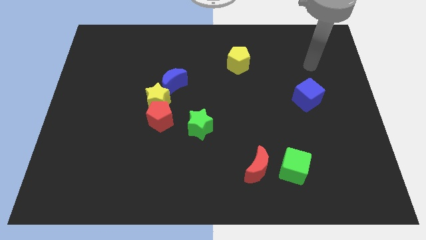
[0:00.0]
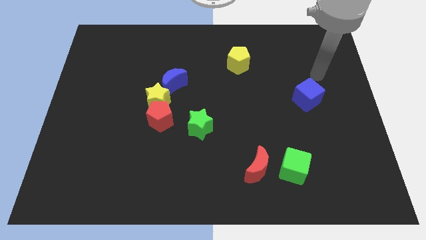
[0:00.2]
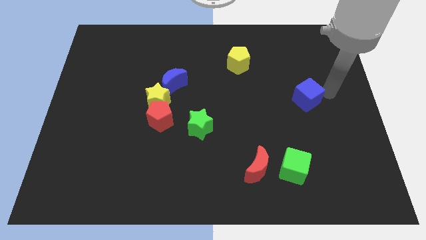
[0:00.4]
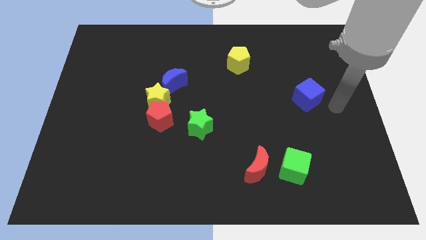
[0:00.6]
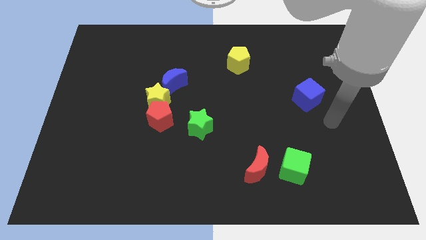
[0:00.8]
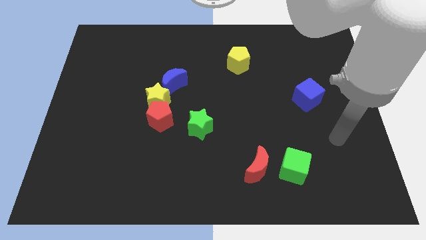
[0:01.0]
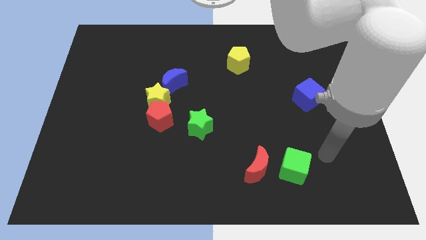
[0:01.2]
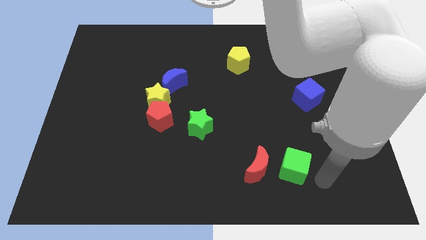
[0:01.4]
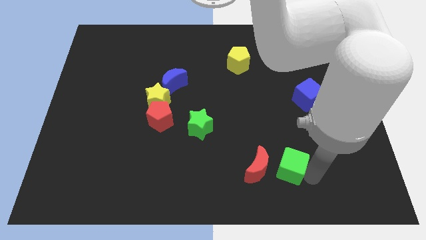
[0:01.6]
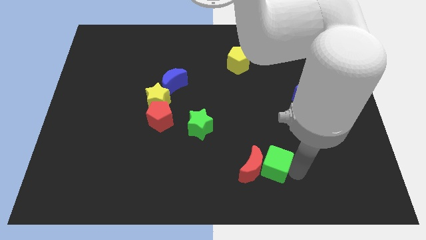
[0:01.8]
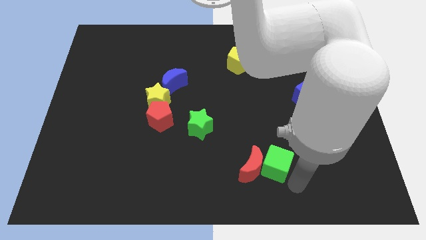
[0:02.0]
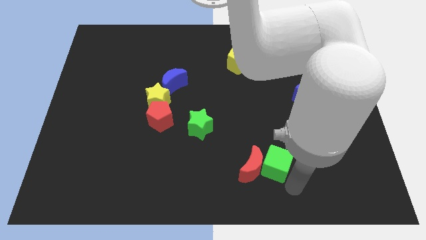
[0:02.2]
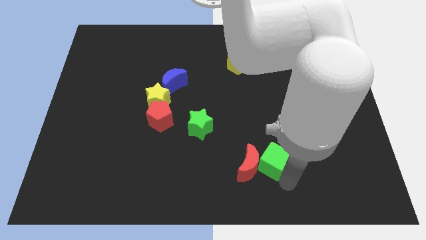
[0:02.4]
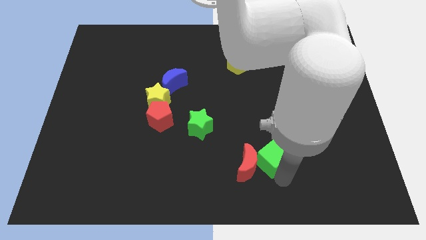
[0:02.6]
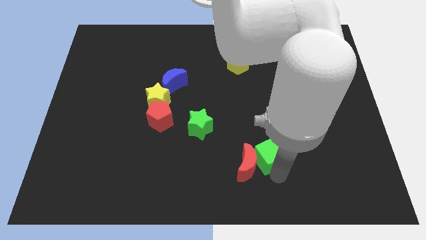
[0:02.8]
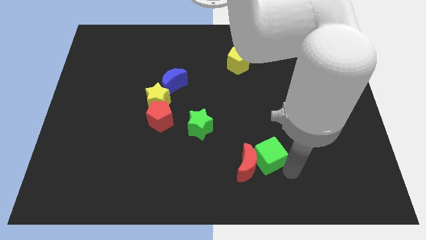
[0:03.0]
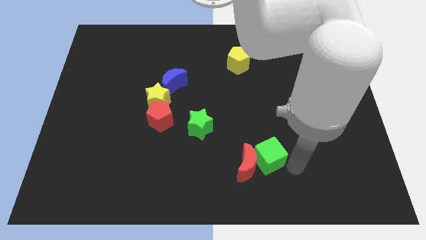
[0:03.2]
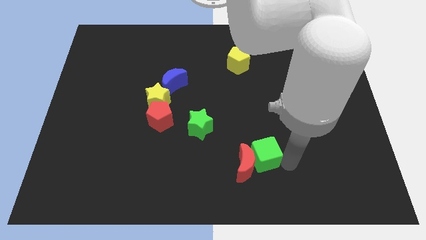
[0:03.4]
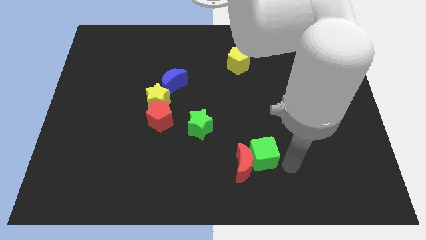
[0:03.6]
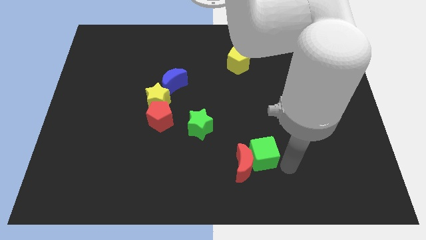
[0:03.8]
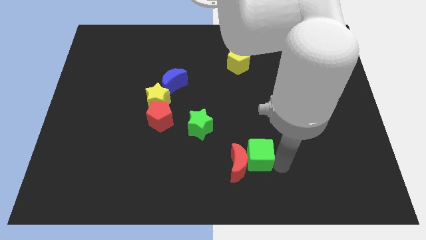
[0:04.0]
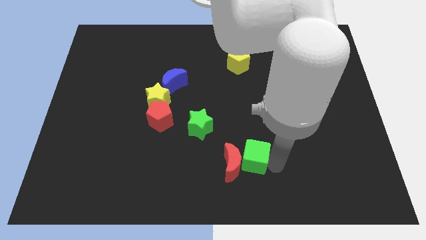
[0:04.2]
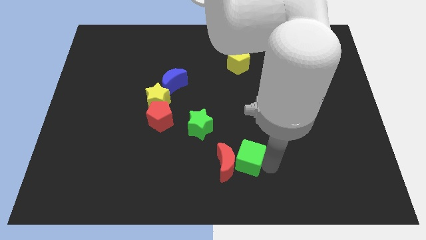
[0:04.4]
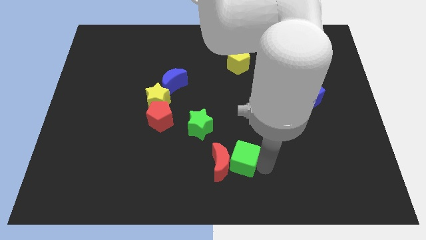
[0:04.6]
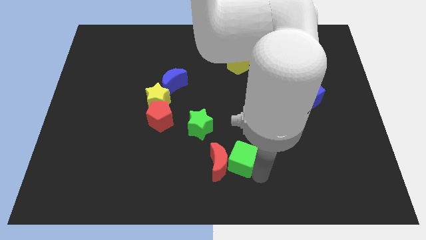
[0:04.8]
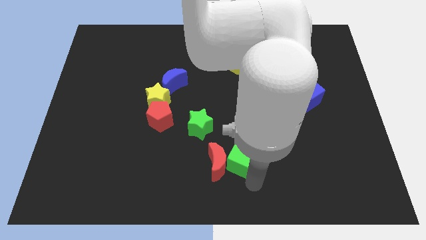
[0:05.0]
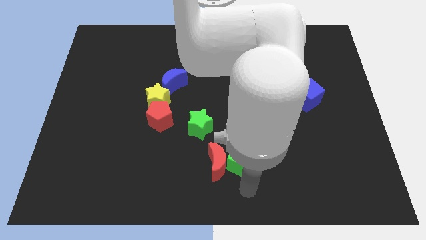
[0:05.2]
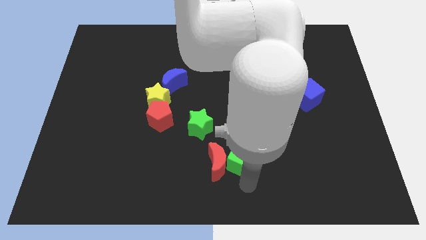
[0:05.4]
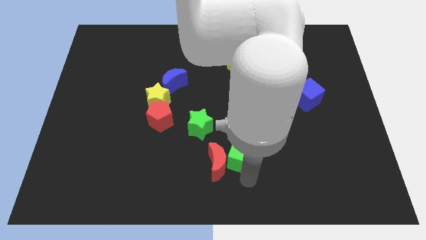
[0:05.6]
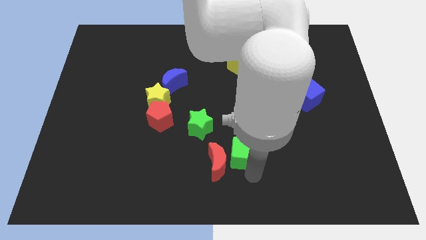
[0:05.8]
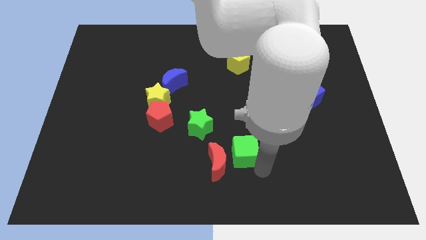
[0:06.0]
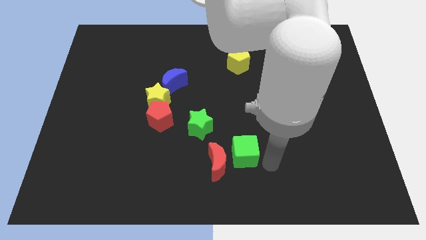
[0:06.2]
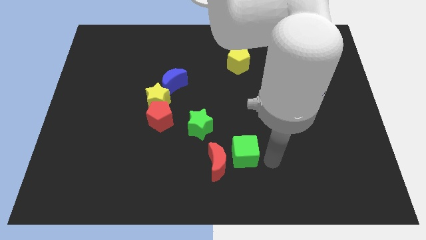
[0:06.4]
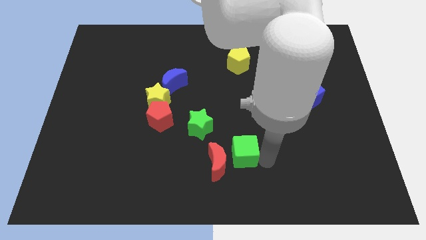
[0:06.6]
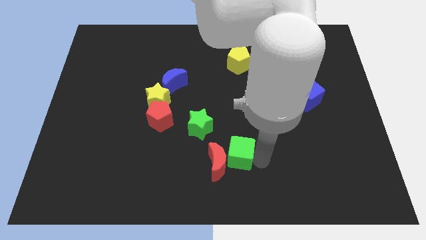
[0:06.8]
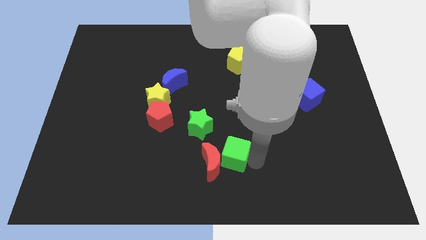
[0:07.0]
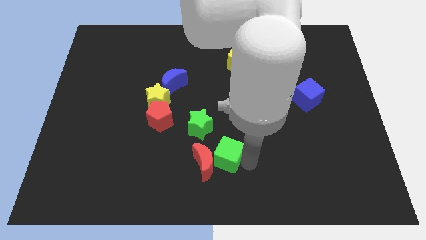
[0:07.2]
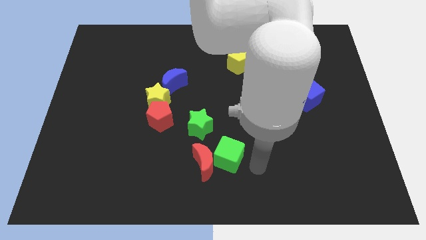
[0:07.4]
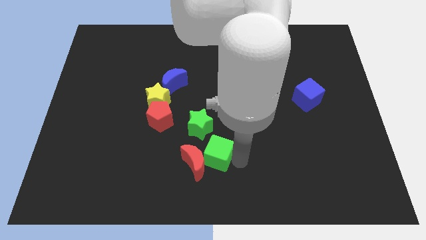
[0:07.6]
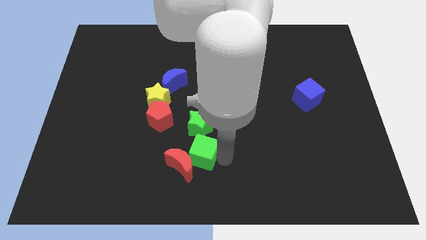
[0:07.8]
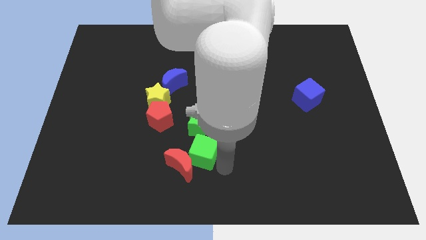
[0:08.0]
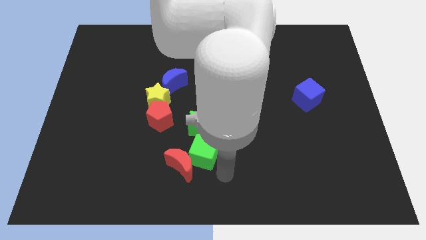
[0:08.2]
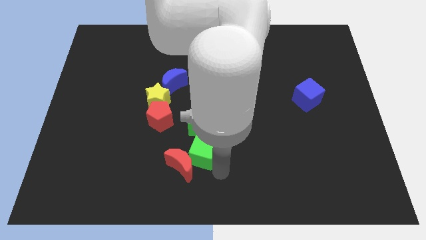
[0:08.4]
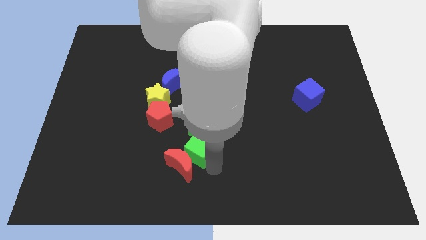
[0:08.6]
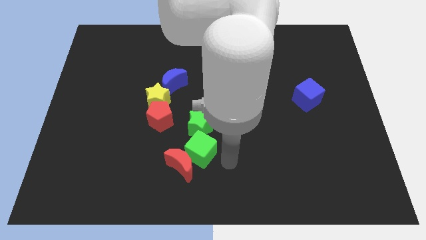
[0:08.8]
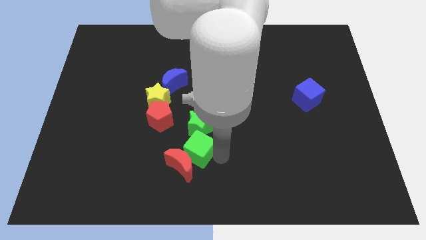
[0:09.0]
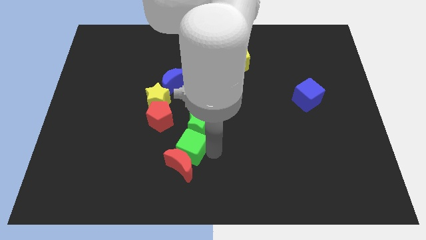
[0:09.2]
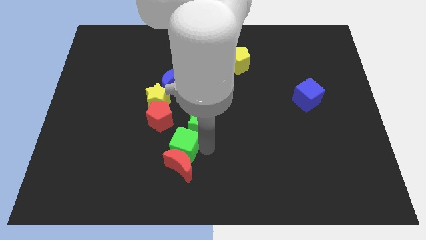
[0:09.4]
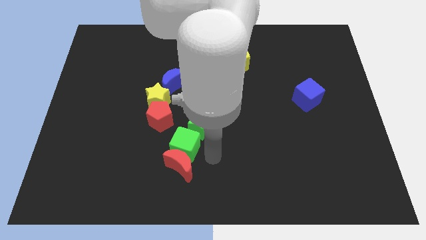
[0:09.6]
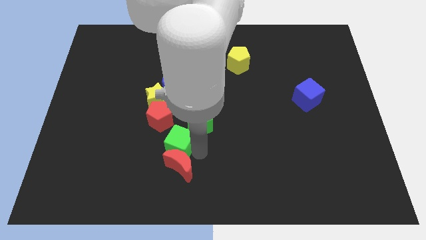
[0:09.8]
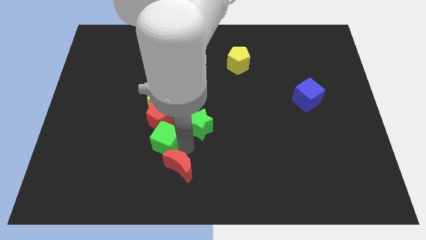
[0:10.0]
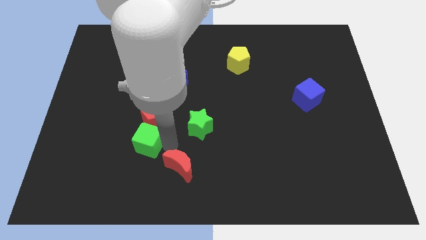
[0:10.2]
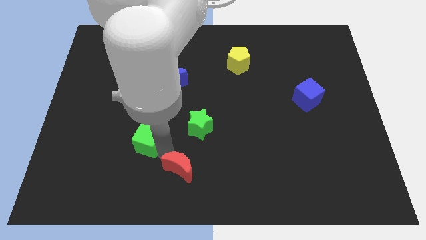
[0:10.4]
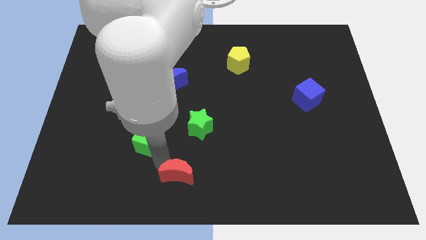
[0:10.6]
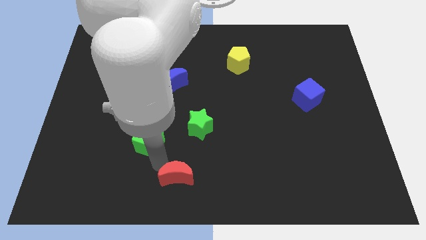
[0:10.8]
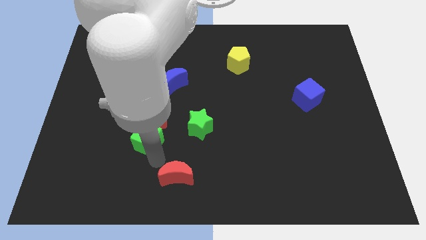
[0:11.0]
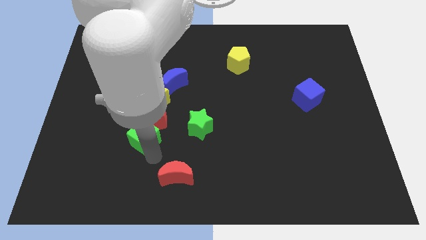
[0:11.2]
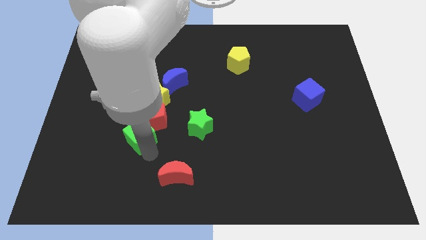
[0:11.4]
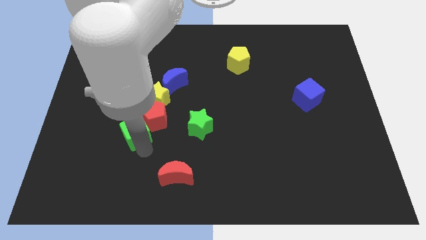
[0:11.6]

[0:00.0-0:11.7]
move the green cube to the bottom left of the yellow star

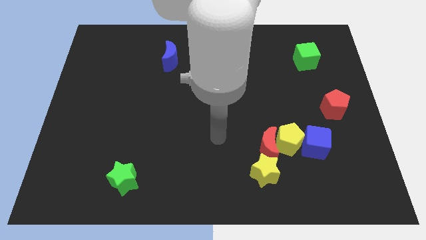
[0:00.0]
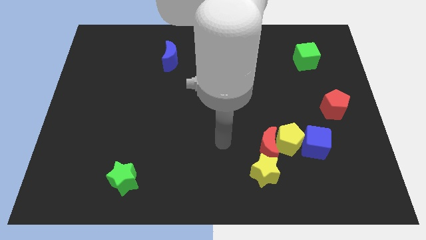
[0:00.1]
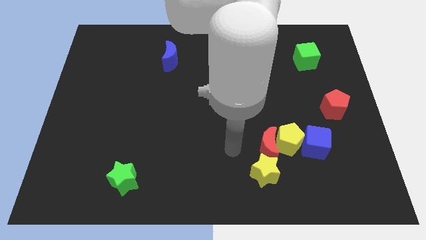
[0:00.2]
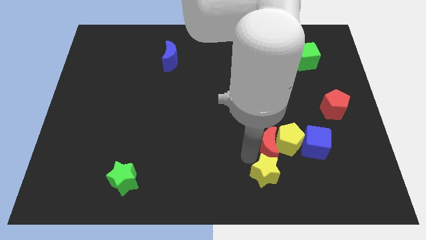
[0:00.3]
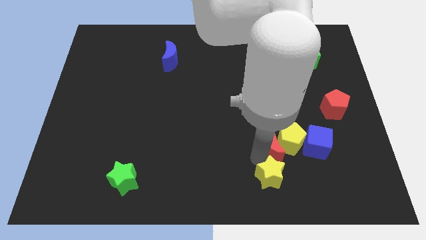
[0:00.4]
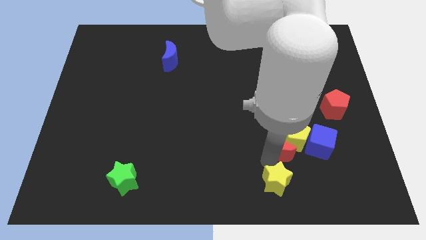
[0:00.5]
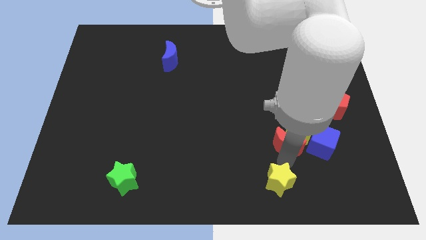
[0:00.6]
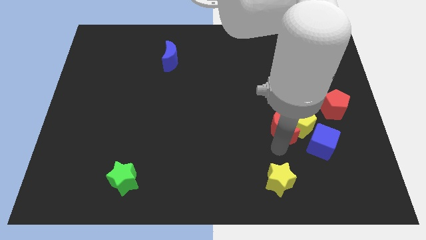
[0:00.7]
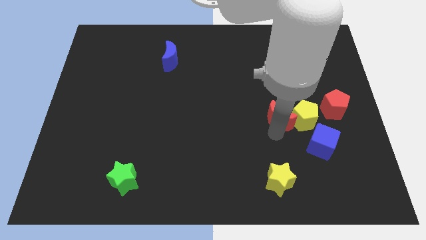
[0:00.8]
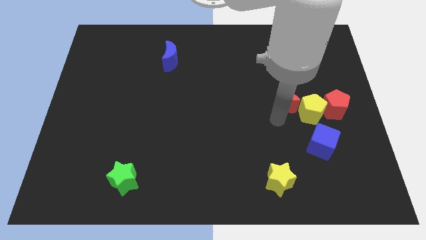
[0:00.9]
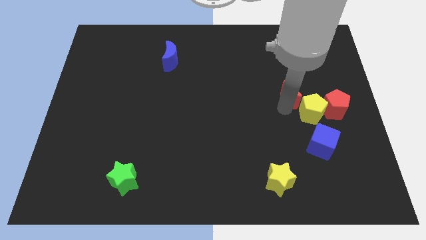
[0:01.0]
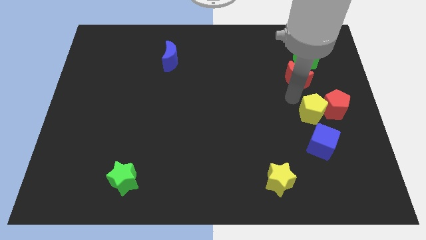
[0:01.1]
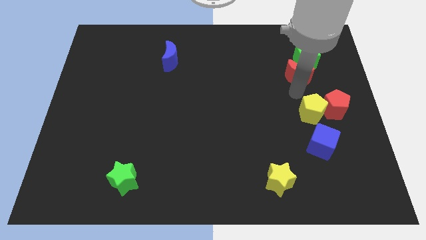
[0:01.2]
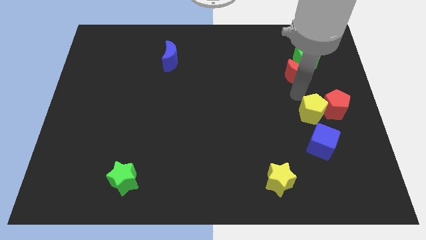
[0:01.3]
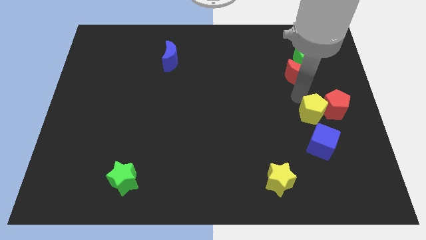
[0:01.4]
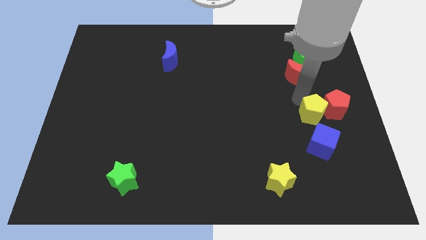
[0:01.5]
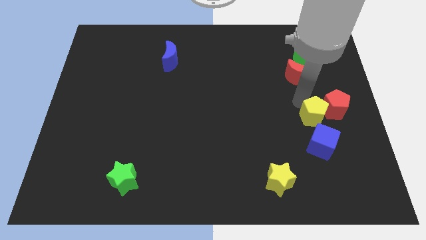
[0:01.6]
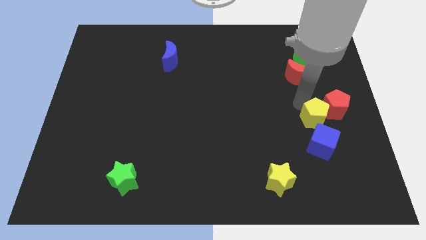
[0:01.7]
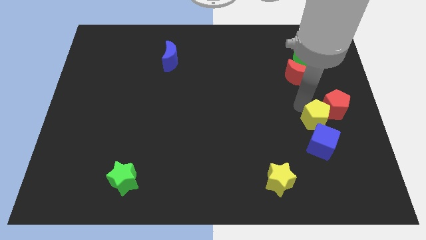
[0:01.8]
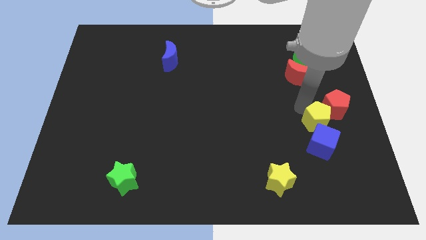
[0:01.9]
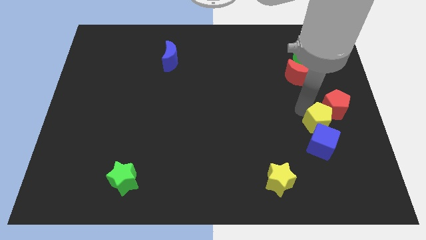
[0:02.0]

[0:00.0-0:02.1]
move the yellow pentagon to the bottom of the red pentagon
